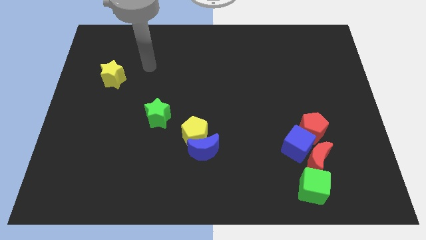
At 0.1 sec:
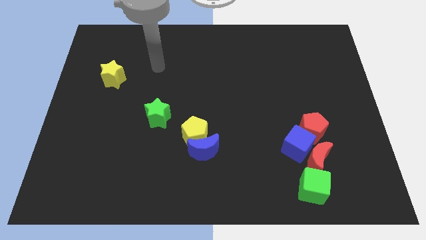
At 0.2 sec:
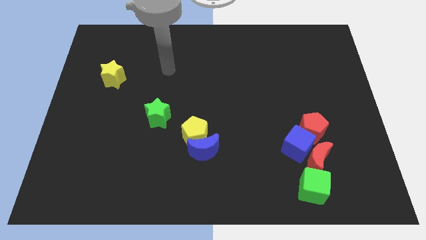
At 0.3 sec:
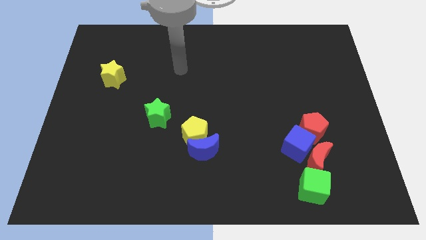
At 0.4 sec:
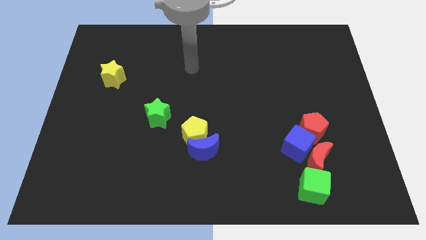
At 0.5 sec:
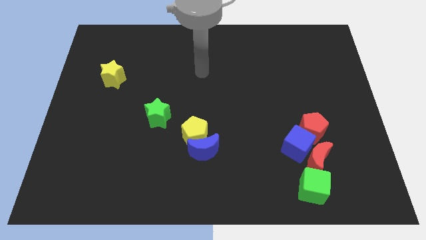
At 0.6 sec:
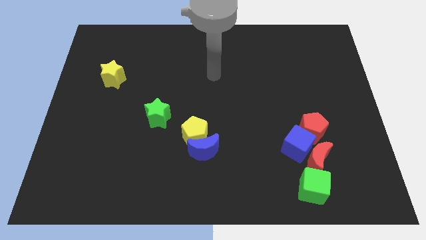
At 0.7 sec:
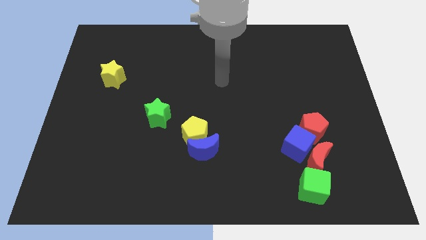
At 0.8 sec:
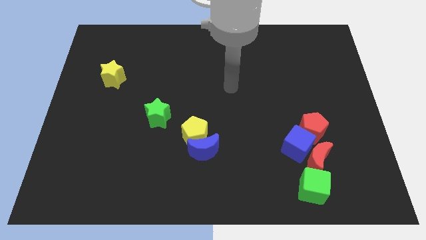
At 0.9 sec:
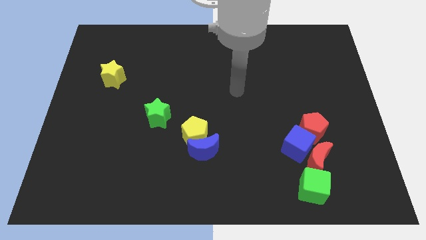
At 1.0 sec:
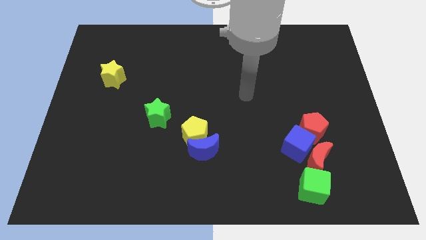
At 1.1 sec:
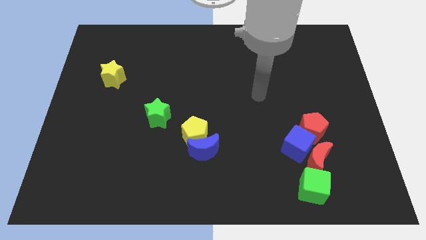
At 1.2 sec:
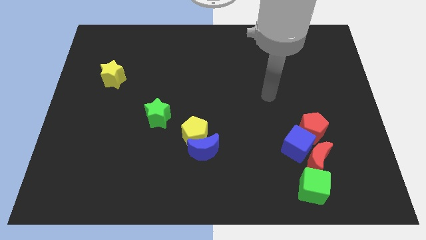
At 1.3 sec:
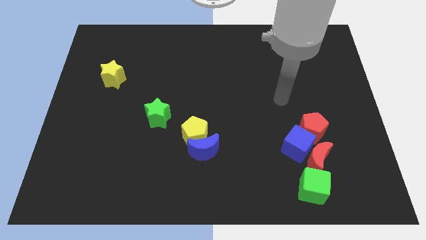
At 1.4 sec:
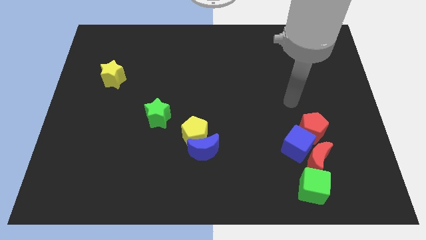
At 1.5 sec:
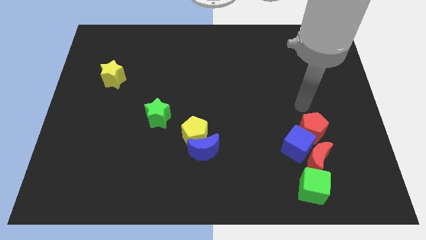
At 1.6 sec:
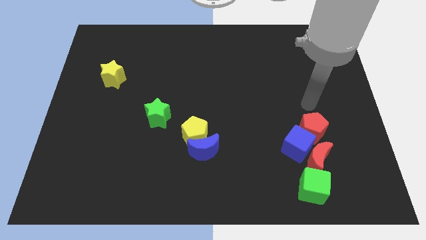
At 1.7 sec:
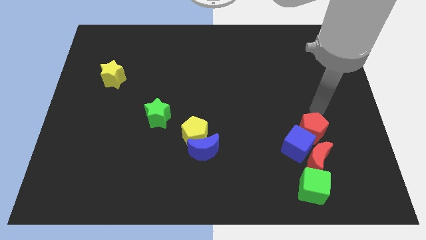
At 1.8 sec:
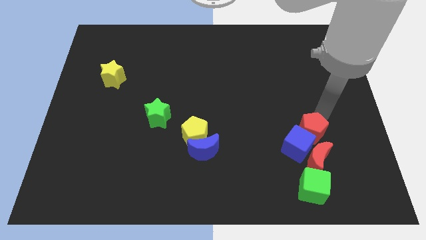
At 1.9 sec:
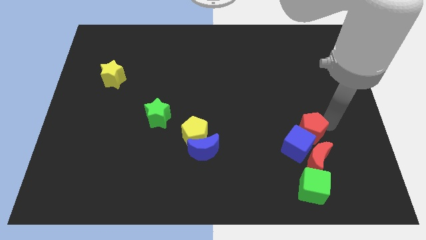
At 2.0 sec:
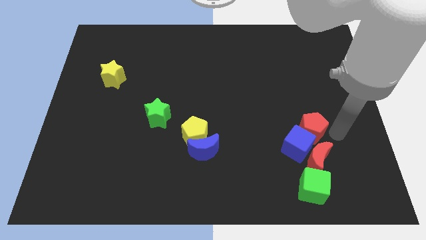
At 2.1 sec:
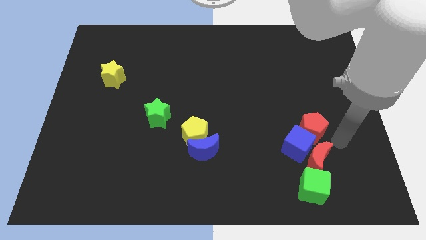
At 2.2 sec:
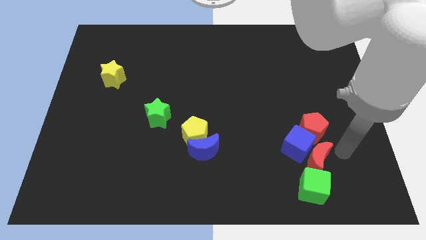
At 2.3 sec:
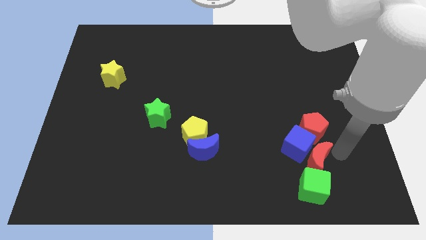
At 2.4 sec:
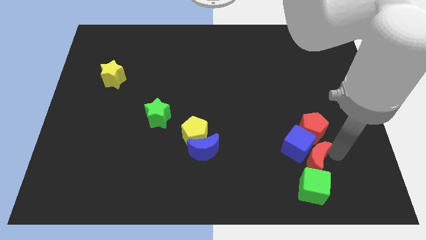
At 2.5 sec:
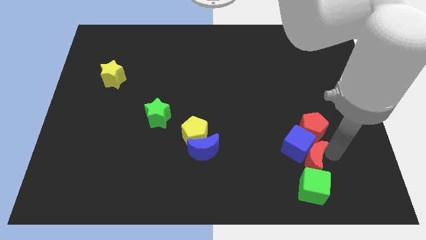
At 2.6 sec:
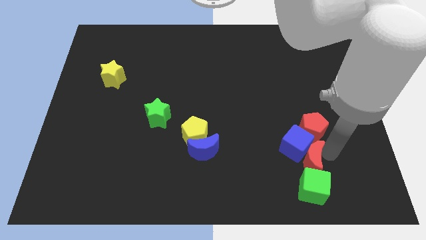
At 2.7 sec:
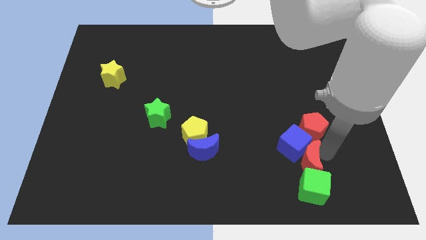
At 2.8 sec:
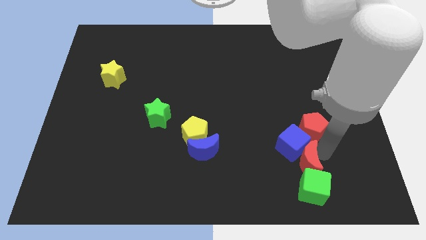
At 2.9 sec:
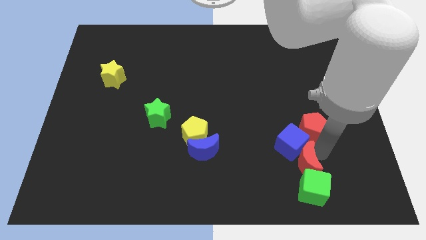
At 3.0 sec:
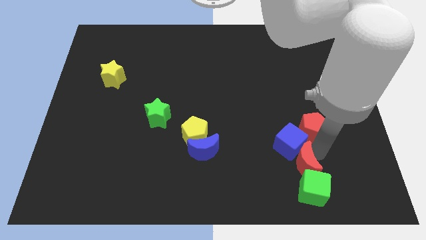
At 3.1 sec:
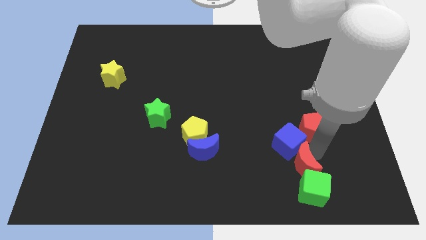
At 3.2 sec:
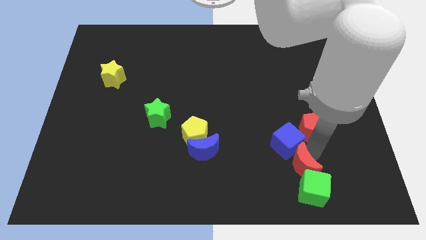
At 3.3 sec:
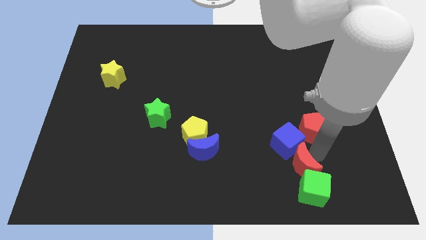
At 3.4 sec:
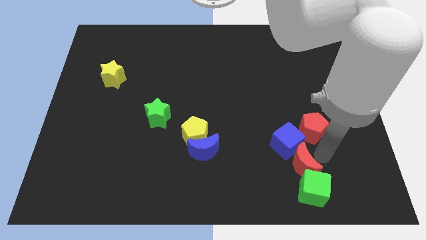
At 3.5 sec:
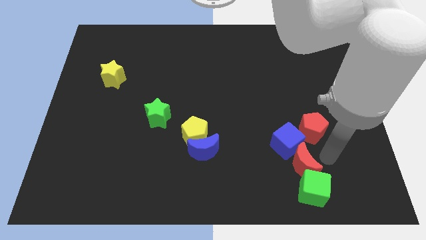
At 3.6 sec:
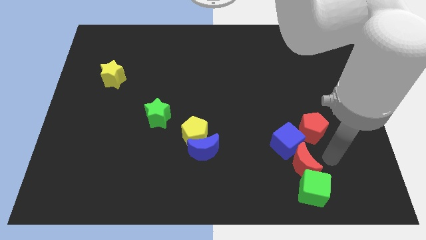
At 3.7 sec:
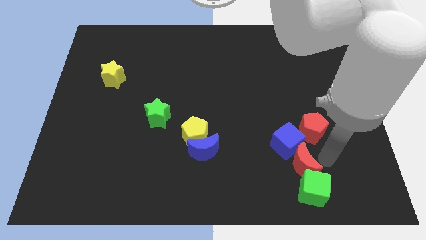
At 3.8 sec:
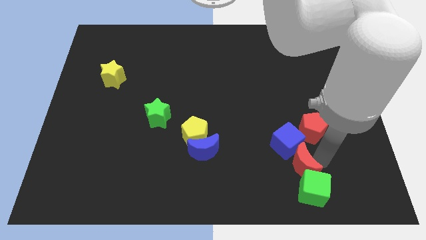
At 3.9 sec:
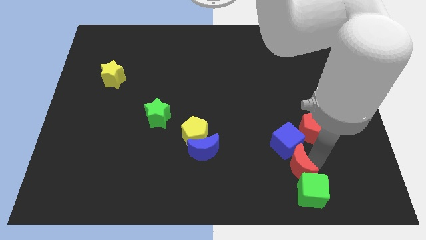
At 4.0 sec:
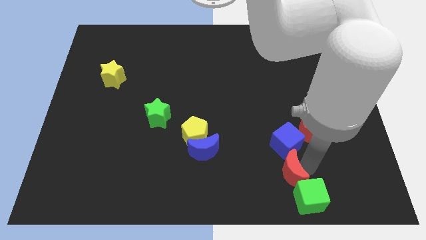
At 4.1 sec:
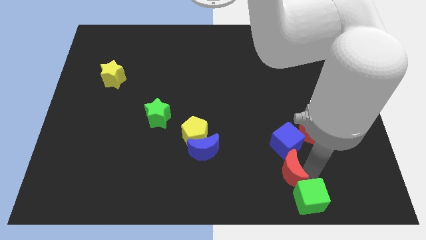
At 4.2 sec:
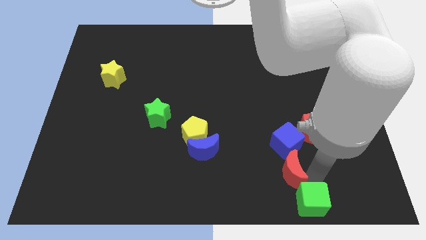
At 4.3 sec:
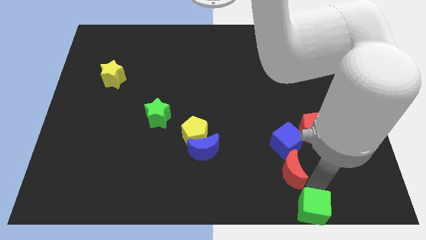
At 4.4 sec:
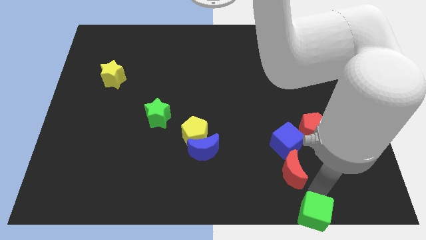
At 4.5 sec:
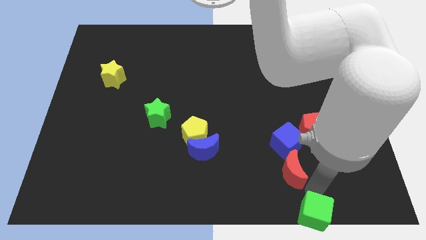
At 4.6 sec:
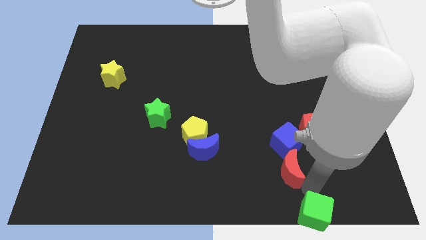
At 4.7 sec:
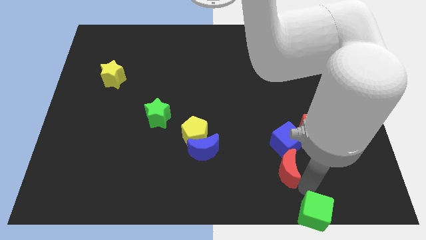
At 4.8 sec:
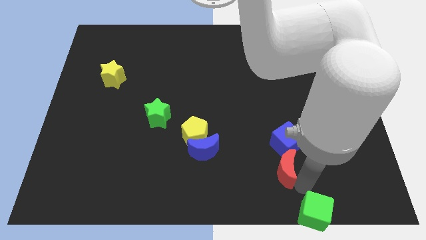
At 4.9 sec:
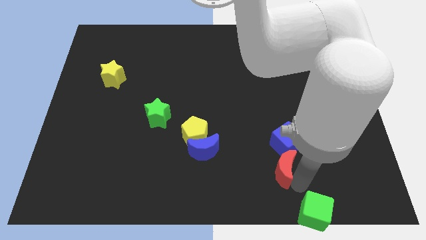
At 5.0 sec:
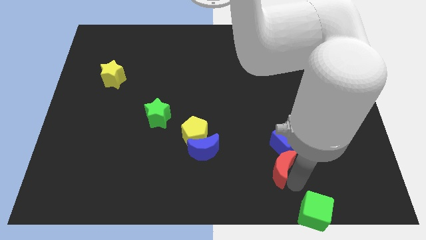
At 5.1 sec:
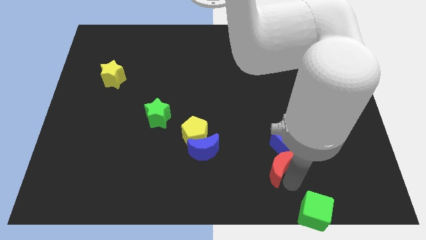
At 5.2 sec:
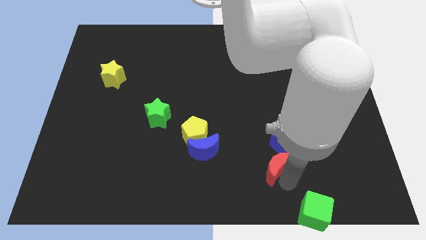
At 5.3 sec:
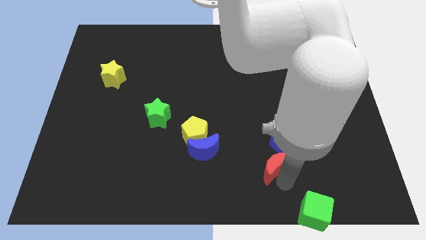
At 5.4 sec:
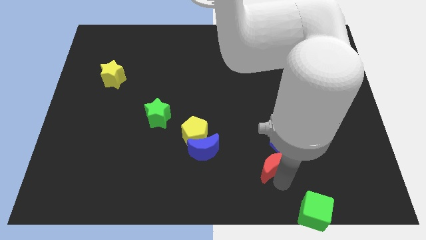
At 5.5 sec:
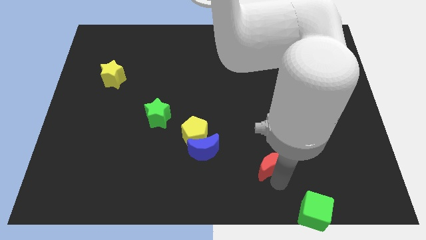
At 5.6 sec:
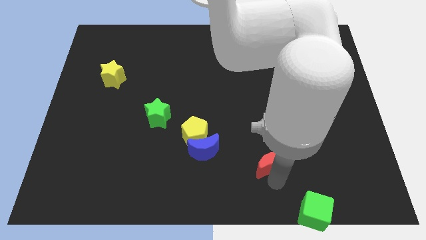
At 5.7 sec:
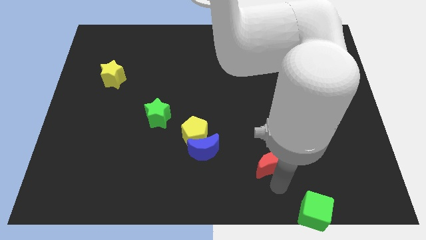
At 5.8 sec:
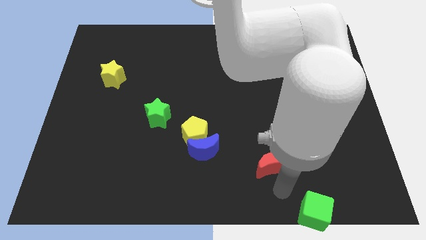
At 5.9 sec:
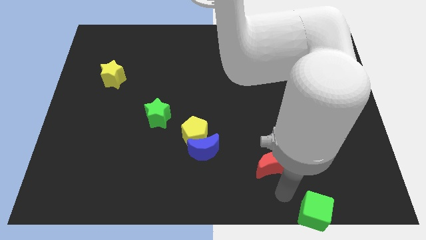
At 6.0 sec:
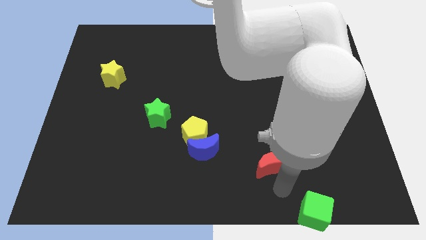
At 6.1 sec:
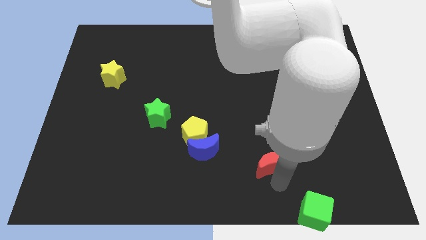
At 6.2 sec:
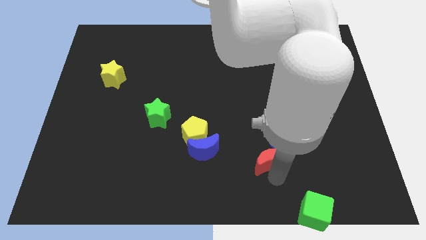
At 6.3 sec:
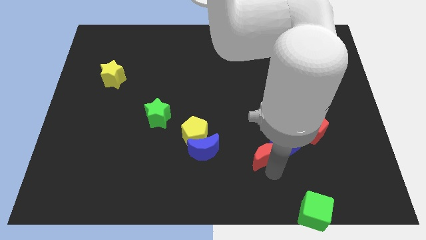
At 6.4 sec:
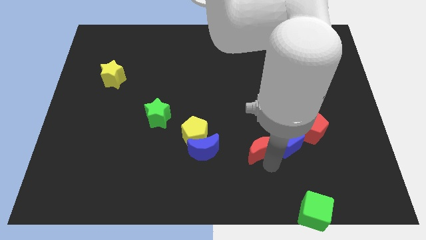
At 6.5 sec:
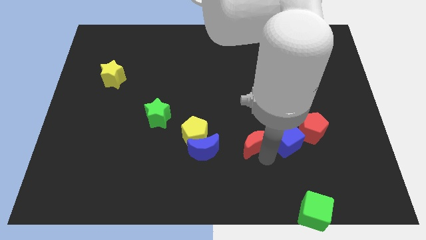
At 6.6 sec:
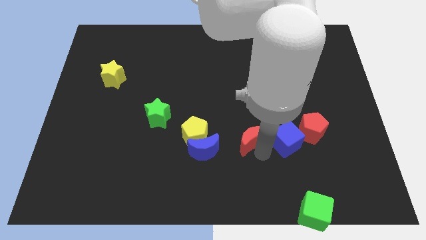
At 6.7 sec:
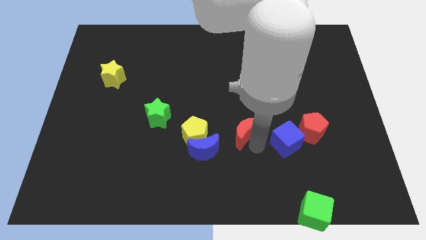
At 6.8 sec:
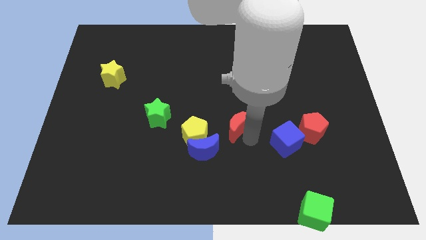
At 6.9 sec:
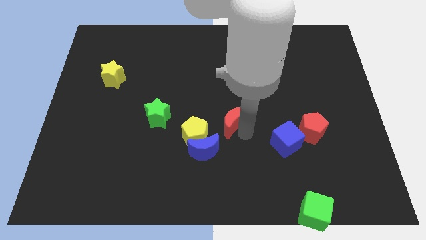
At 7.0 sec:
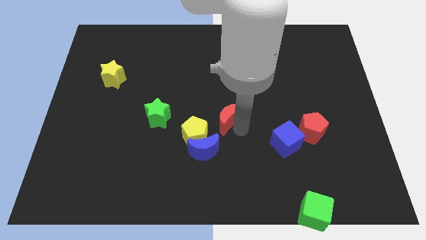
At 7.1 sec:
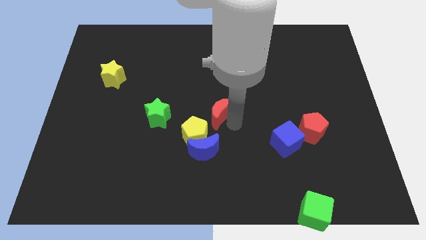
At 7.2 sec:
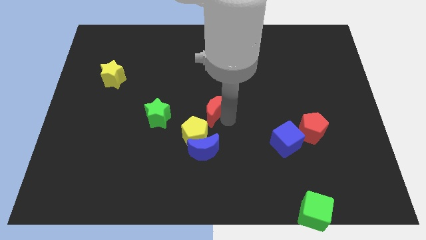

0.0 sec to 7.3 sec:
put the red moon to the top side of the yellow pentagon

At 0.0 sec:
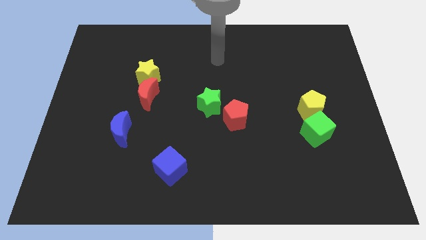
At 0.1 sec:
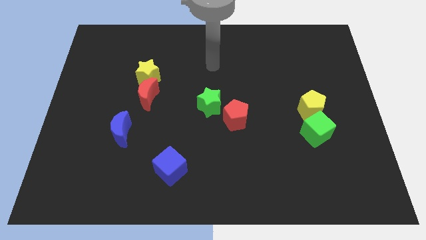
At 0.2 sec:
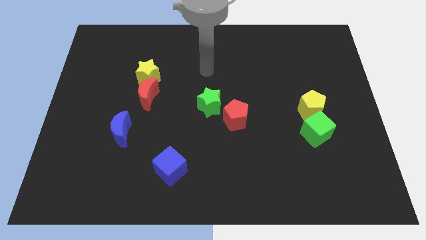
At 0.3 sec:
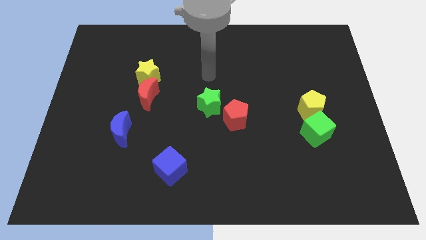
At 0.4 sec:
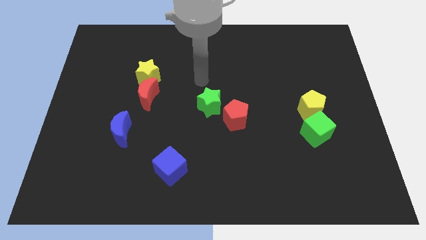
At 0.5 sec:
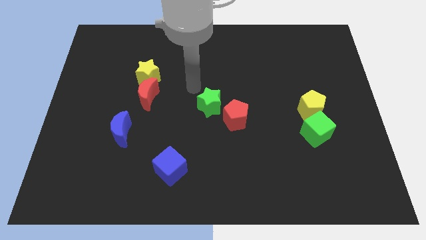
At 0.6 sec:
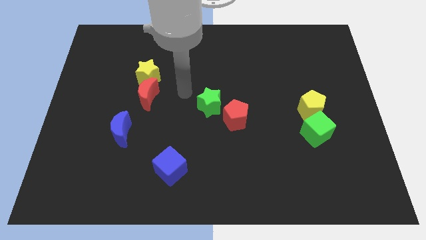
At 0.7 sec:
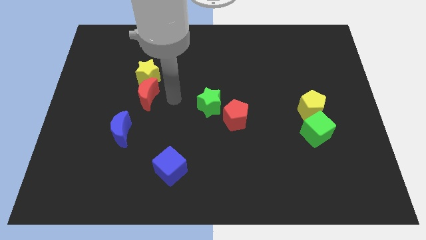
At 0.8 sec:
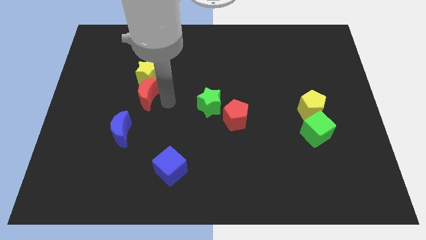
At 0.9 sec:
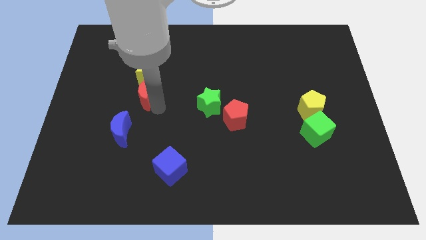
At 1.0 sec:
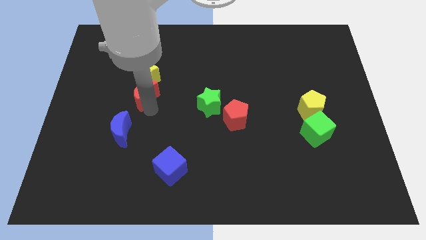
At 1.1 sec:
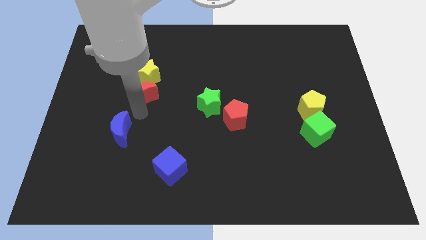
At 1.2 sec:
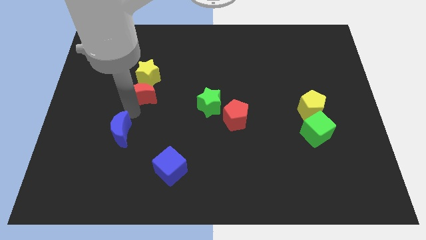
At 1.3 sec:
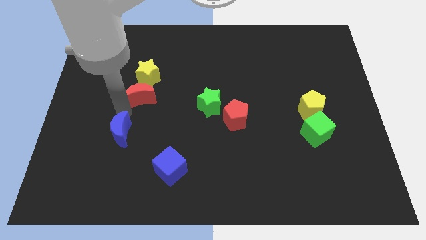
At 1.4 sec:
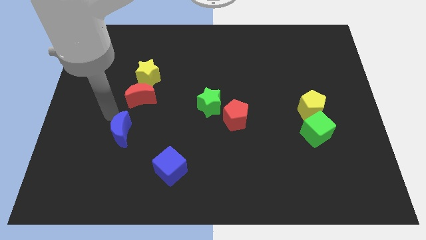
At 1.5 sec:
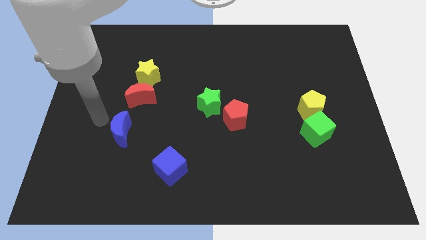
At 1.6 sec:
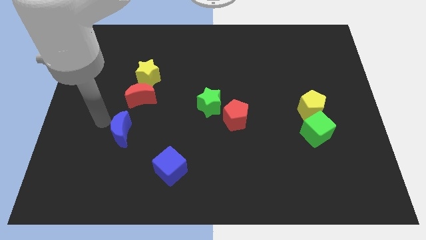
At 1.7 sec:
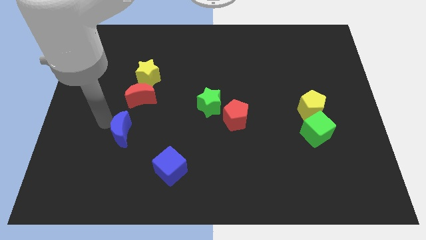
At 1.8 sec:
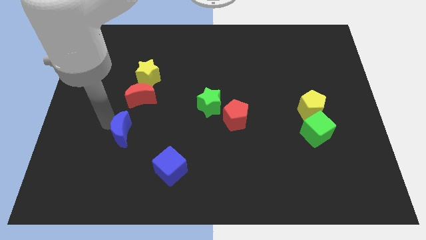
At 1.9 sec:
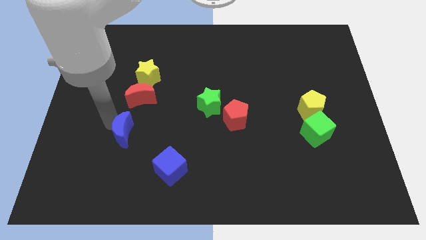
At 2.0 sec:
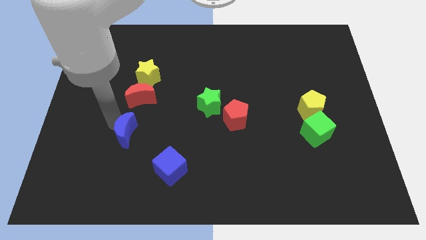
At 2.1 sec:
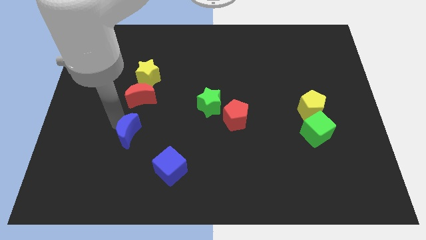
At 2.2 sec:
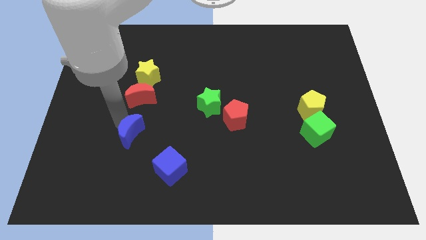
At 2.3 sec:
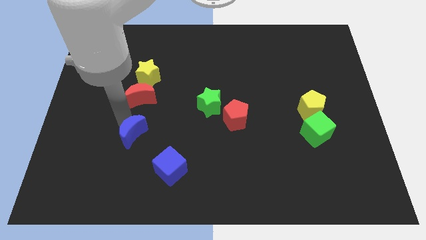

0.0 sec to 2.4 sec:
push the blue moon to the top left side of the blue cube
